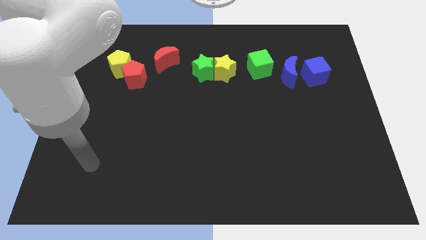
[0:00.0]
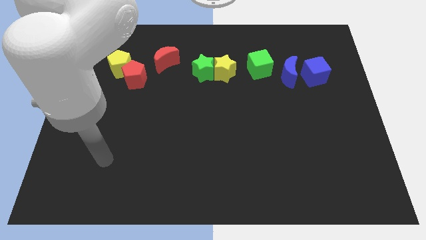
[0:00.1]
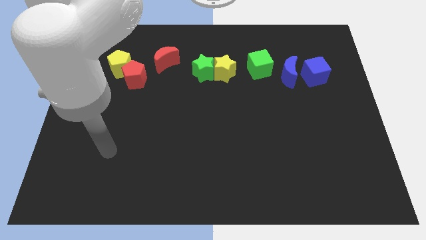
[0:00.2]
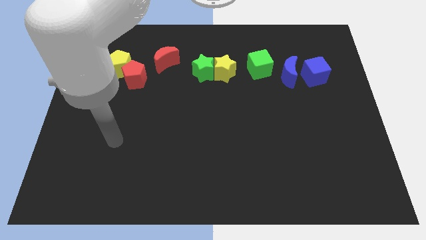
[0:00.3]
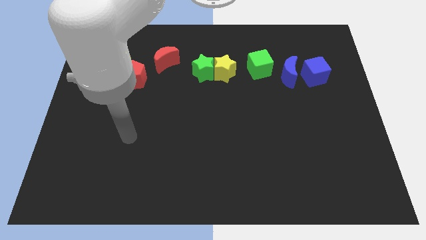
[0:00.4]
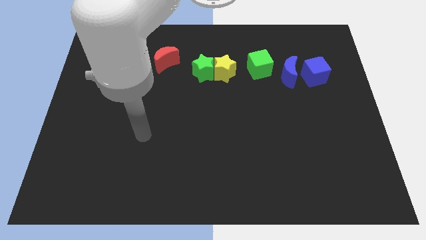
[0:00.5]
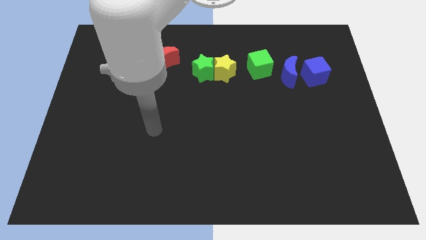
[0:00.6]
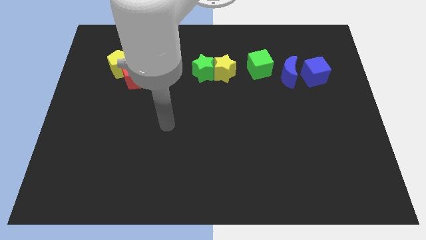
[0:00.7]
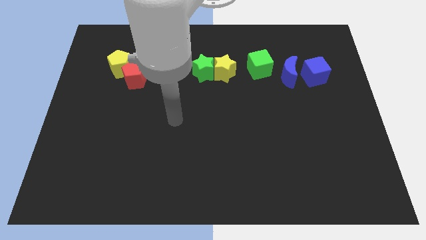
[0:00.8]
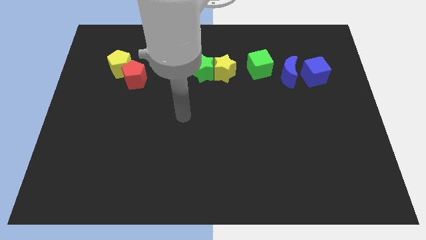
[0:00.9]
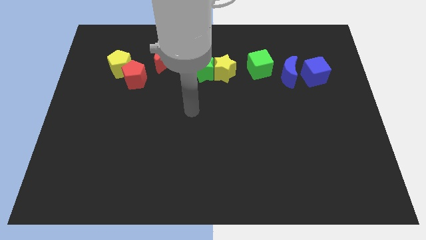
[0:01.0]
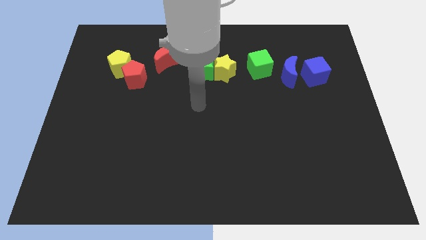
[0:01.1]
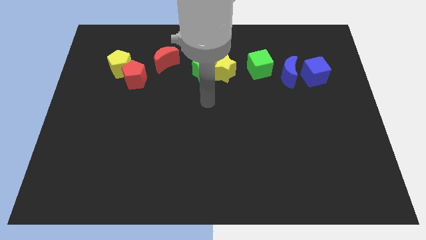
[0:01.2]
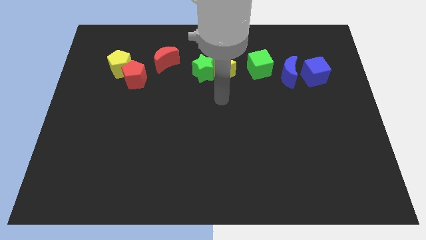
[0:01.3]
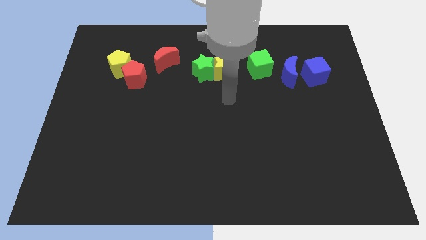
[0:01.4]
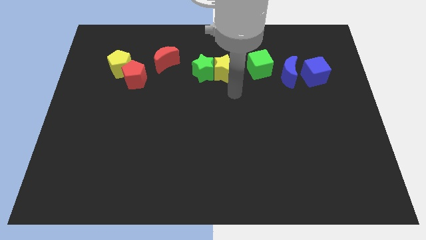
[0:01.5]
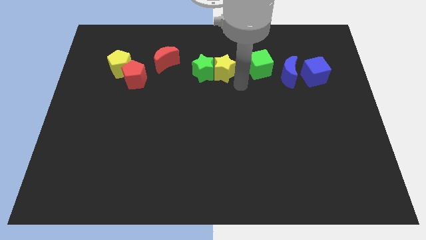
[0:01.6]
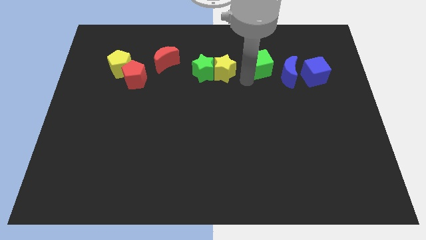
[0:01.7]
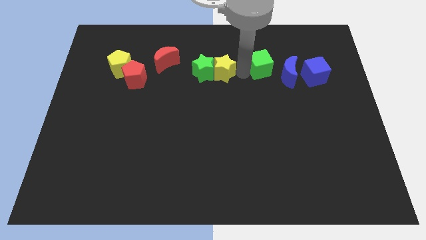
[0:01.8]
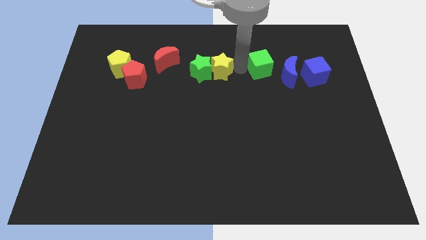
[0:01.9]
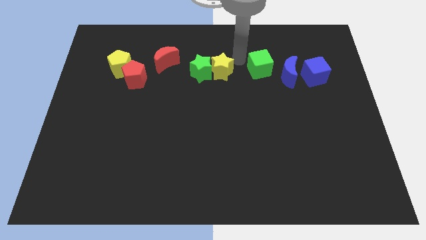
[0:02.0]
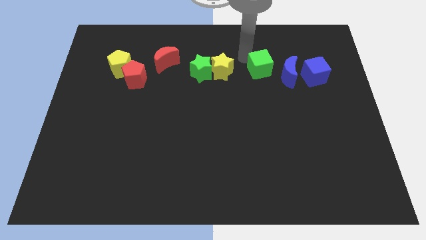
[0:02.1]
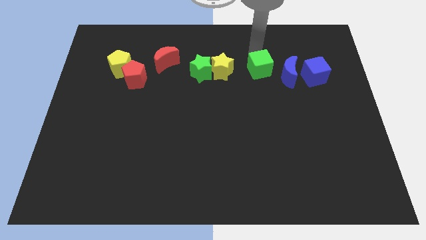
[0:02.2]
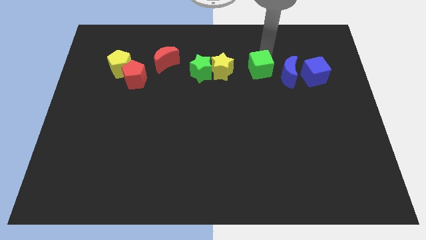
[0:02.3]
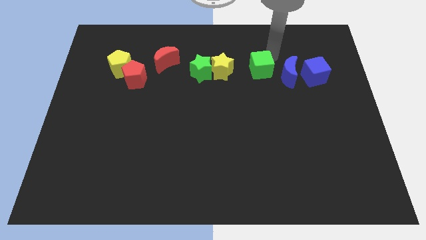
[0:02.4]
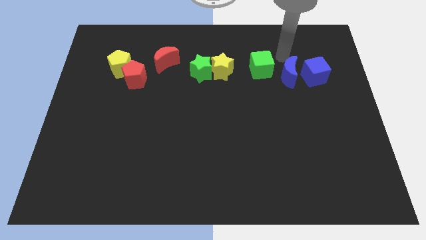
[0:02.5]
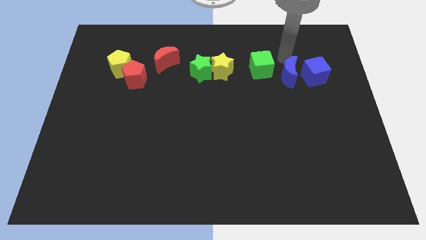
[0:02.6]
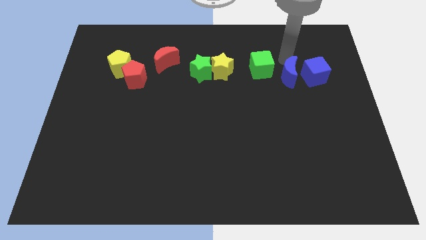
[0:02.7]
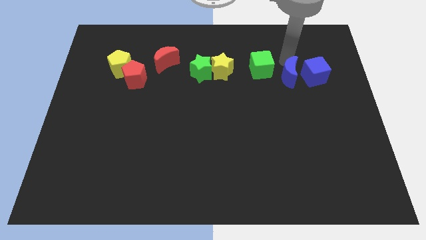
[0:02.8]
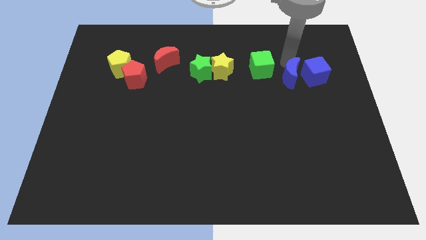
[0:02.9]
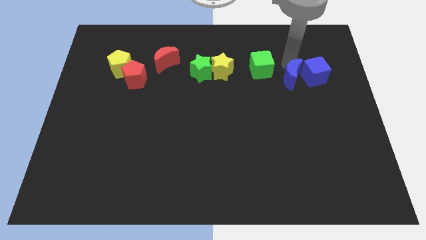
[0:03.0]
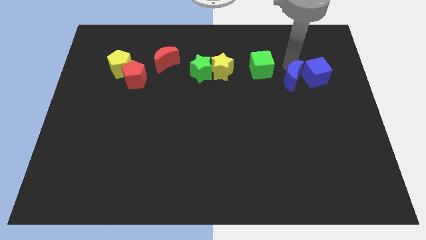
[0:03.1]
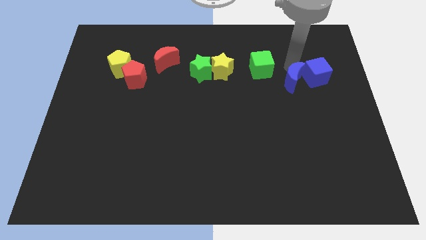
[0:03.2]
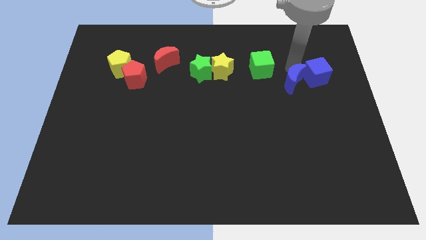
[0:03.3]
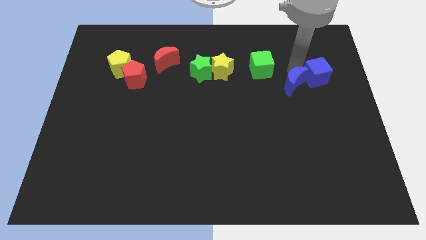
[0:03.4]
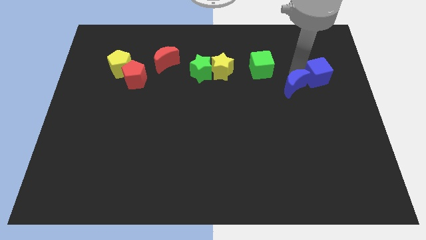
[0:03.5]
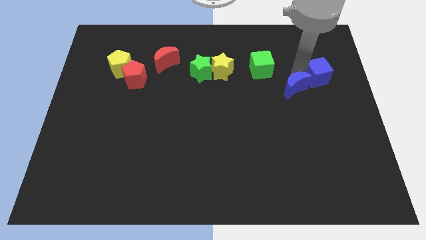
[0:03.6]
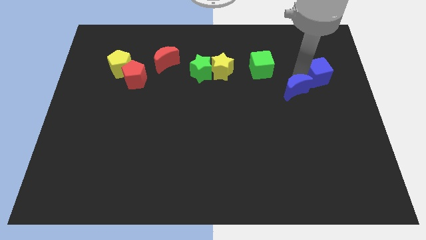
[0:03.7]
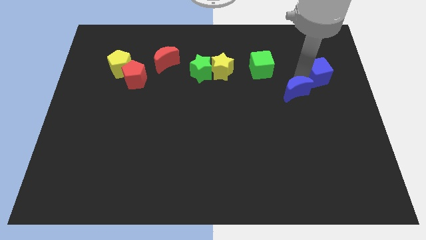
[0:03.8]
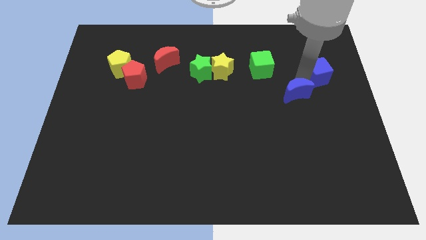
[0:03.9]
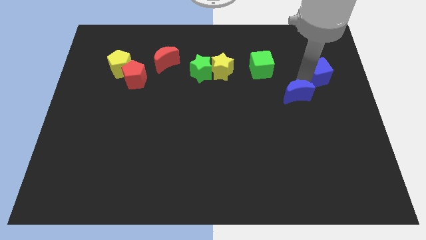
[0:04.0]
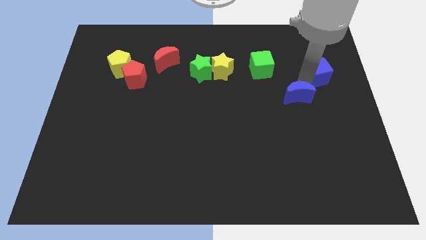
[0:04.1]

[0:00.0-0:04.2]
move the blue moon downwards a bit

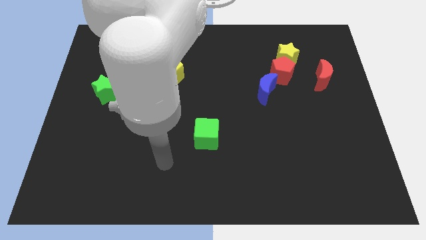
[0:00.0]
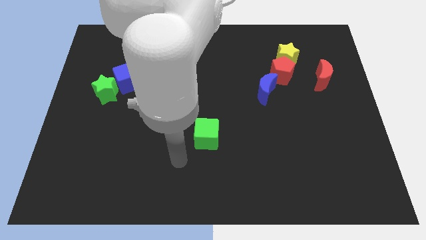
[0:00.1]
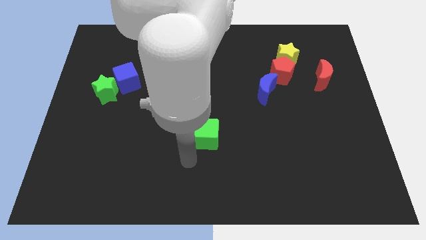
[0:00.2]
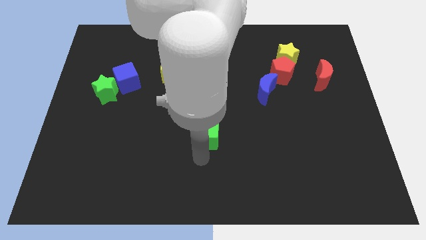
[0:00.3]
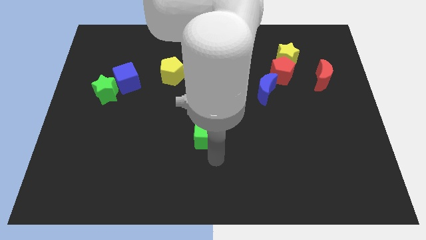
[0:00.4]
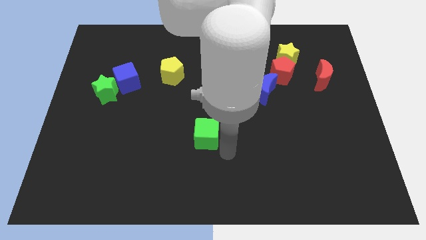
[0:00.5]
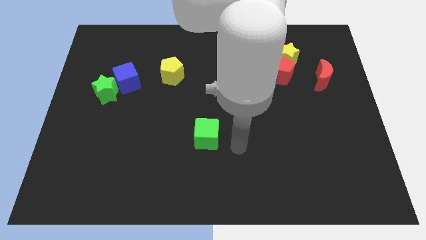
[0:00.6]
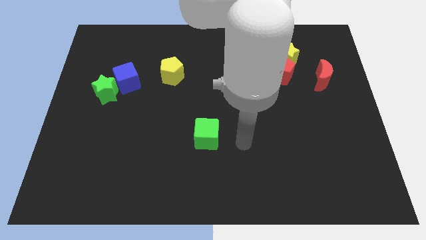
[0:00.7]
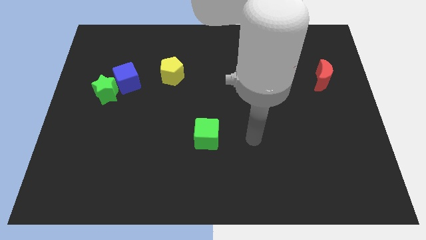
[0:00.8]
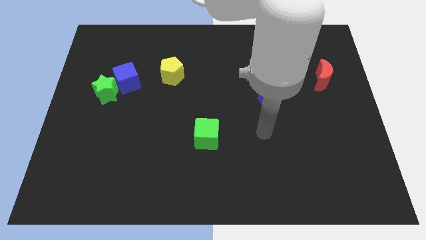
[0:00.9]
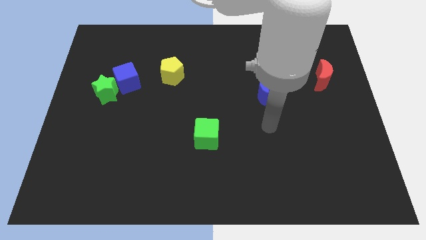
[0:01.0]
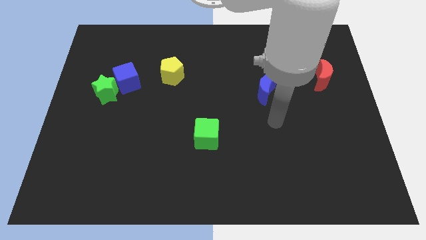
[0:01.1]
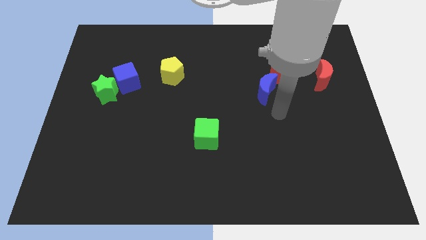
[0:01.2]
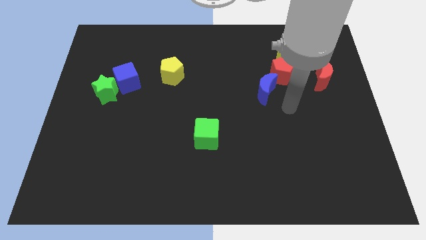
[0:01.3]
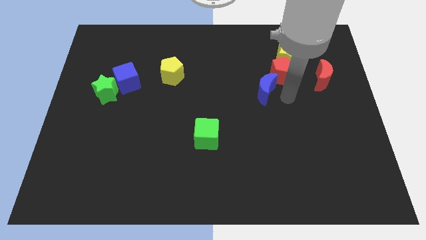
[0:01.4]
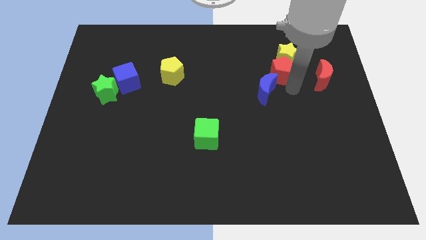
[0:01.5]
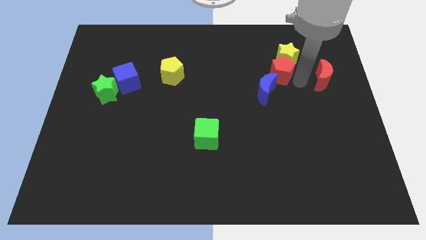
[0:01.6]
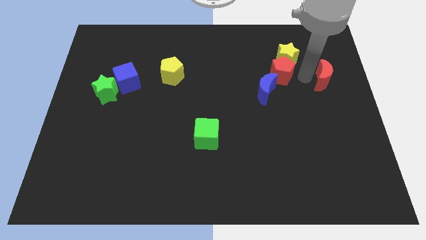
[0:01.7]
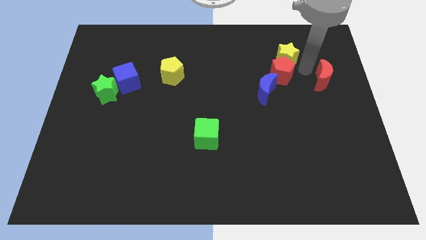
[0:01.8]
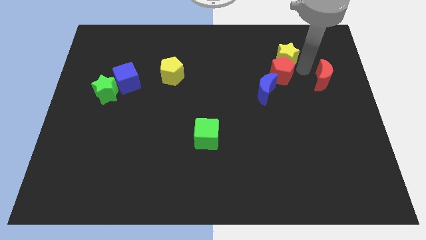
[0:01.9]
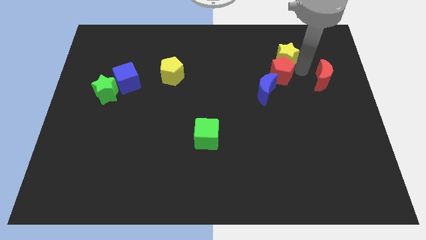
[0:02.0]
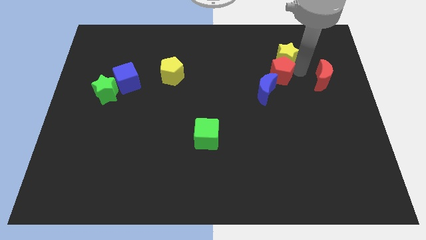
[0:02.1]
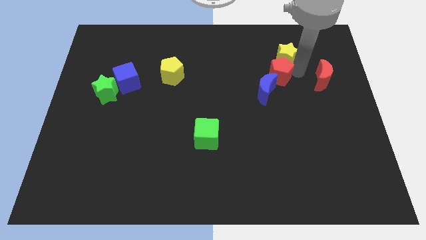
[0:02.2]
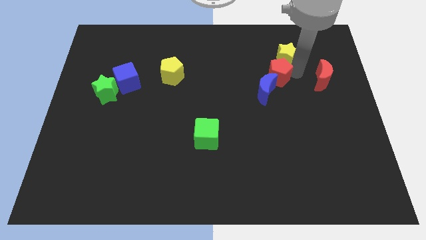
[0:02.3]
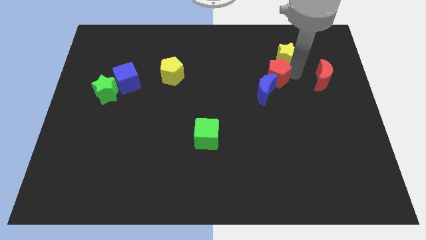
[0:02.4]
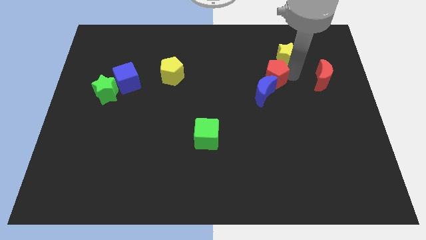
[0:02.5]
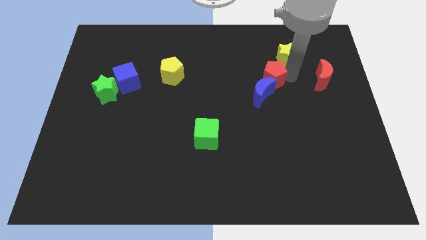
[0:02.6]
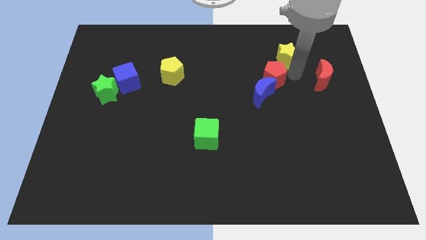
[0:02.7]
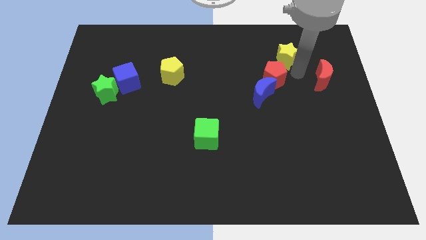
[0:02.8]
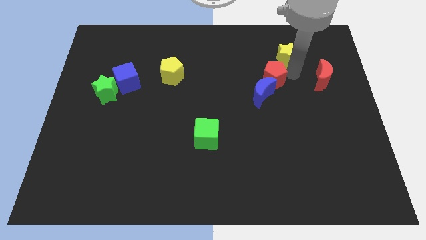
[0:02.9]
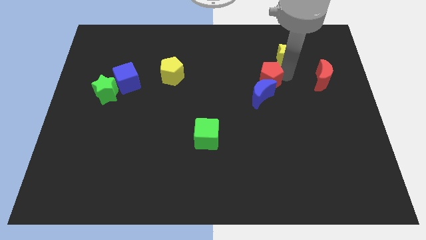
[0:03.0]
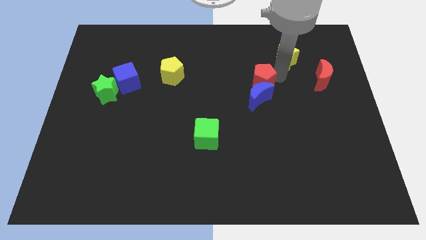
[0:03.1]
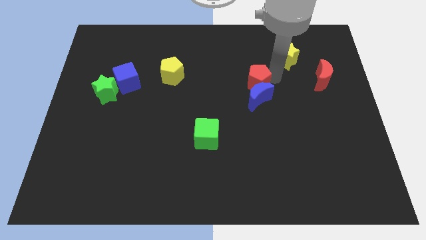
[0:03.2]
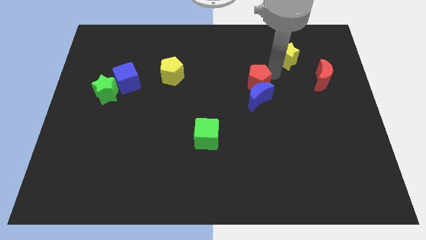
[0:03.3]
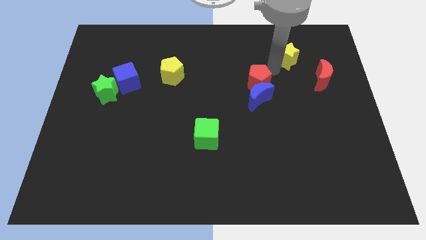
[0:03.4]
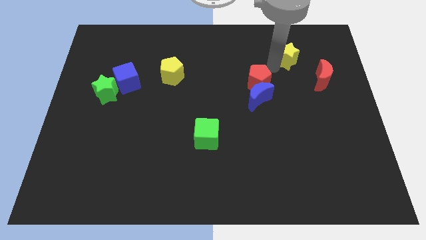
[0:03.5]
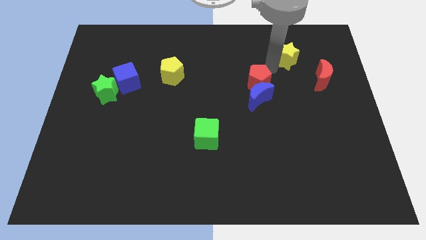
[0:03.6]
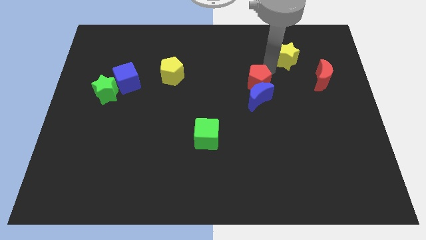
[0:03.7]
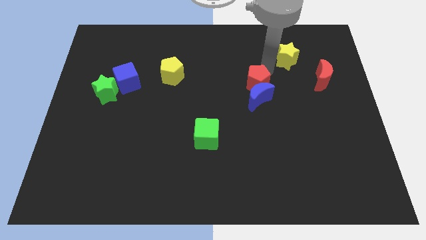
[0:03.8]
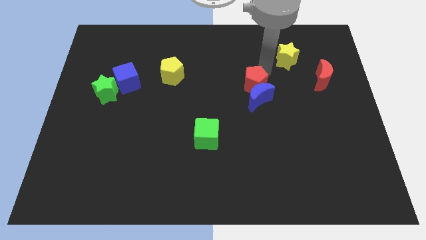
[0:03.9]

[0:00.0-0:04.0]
move the red pentagon downwards and left diagonally a little

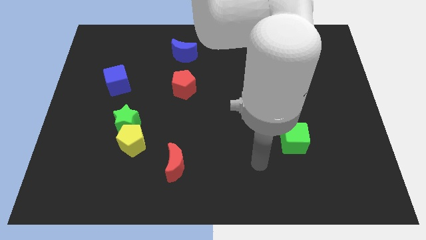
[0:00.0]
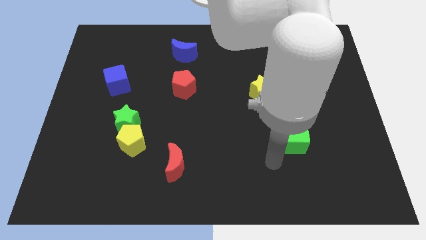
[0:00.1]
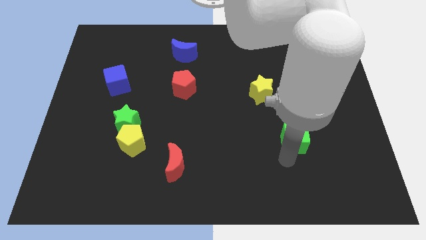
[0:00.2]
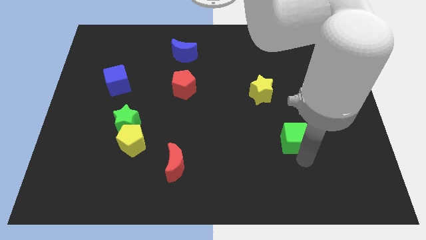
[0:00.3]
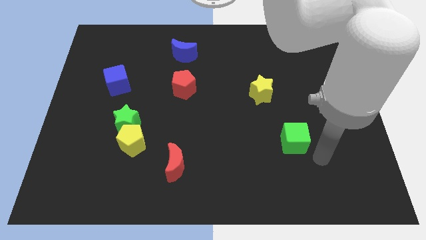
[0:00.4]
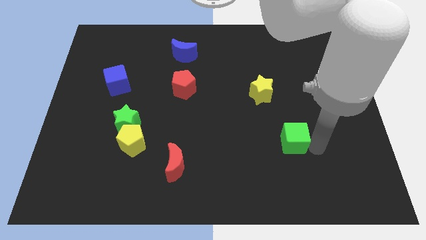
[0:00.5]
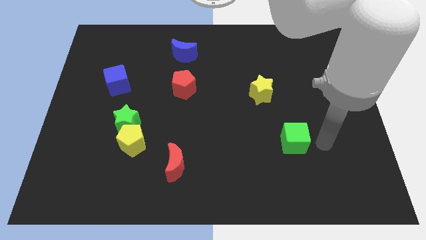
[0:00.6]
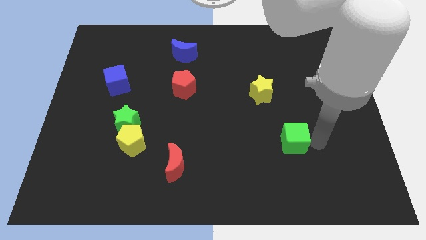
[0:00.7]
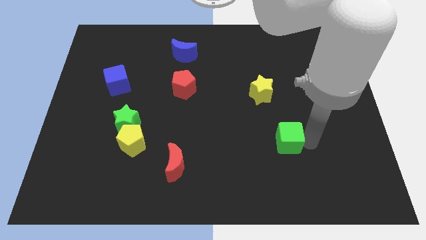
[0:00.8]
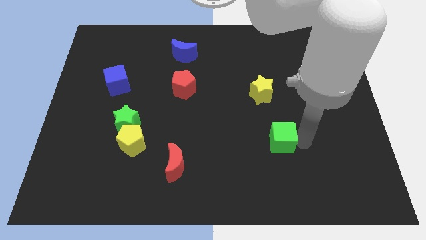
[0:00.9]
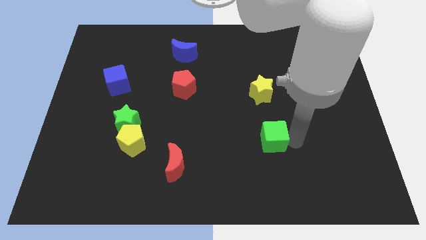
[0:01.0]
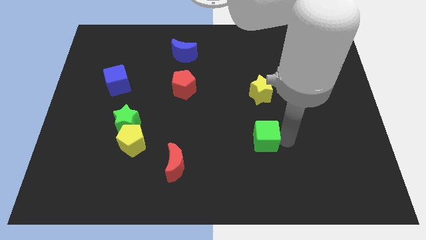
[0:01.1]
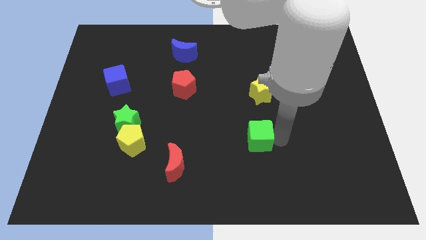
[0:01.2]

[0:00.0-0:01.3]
slightly move the green cube to the left
